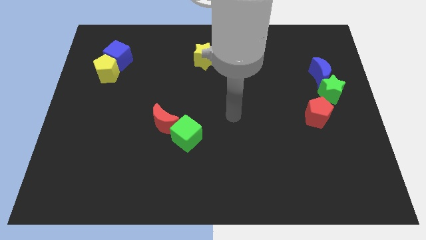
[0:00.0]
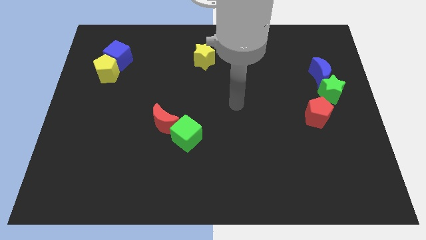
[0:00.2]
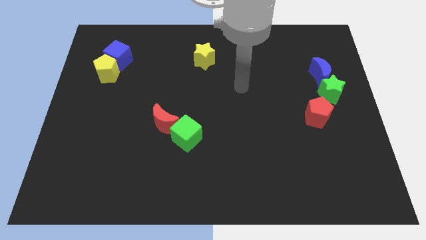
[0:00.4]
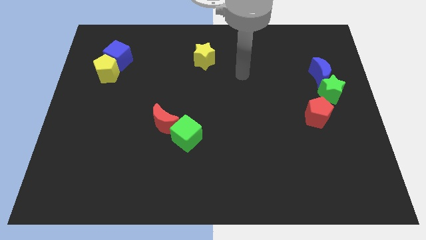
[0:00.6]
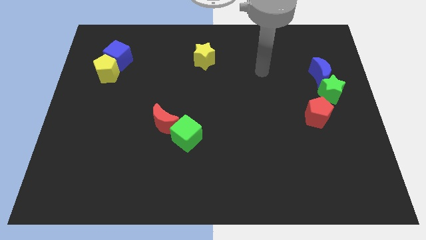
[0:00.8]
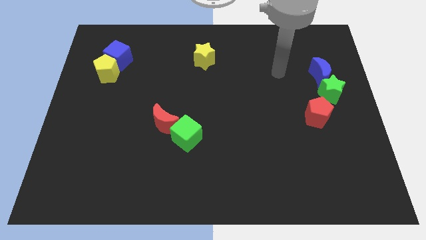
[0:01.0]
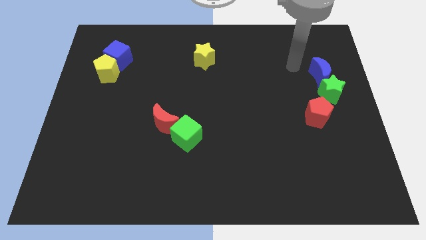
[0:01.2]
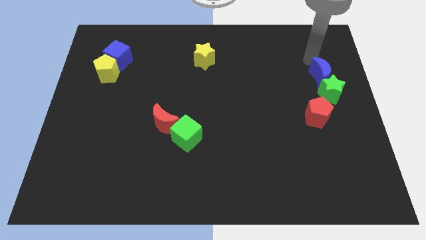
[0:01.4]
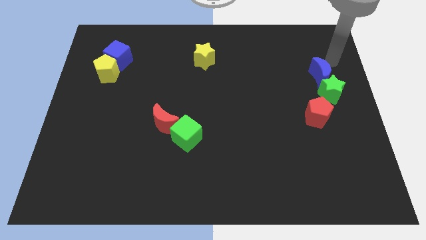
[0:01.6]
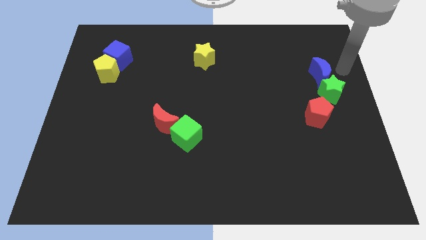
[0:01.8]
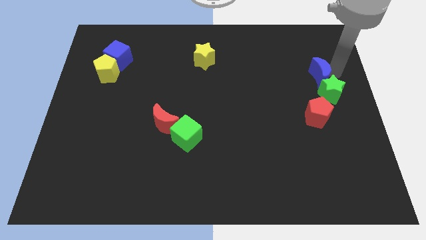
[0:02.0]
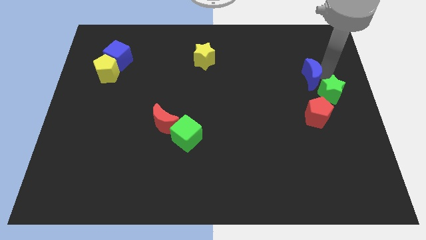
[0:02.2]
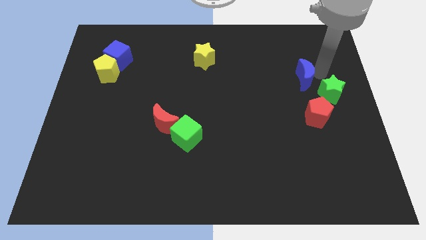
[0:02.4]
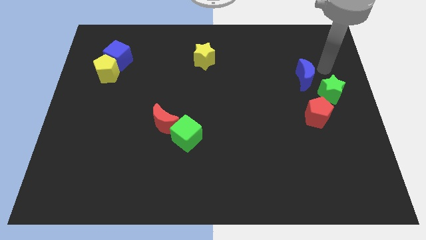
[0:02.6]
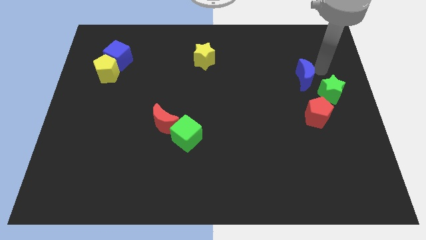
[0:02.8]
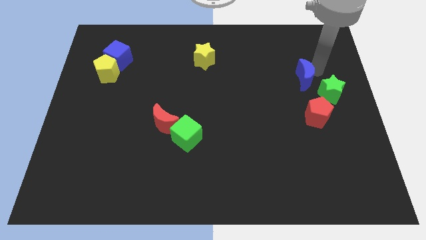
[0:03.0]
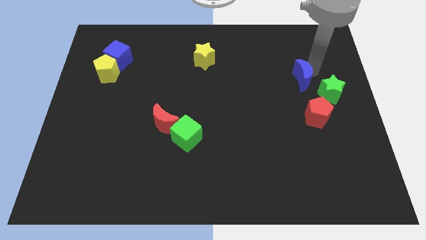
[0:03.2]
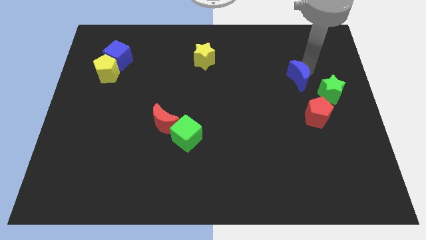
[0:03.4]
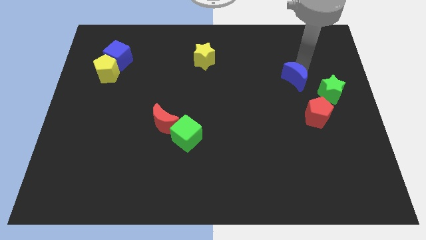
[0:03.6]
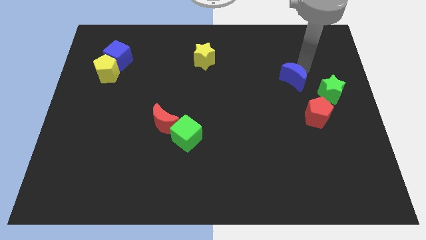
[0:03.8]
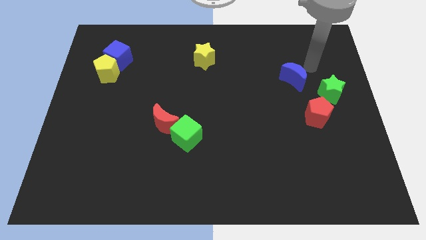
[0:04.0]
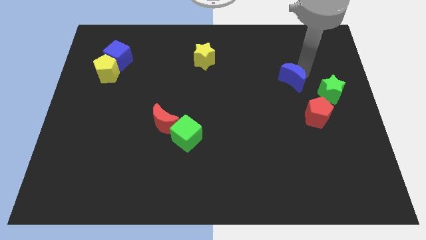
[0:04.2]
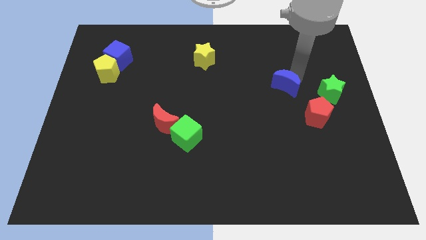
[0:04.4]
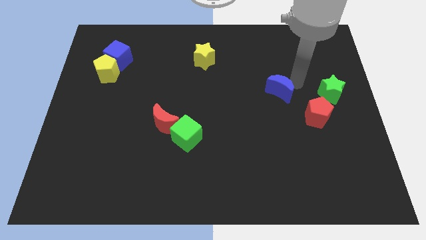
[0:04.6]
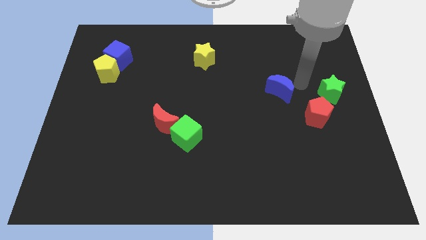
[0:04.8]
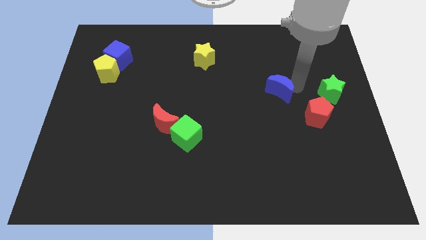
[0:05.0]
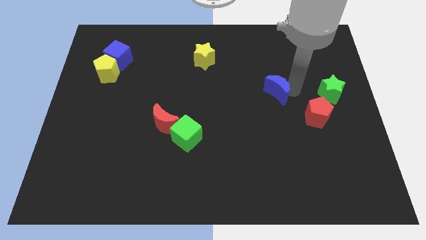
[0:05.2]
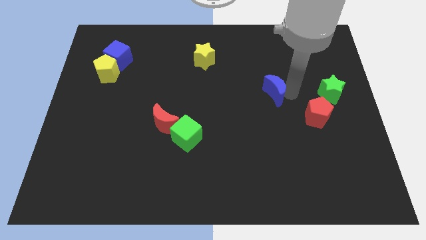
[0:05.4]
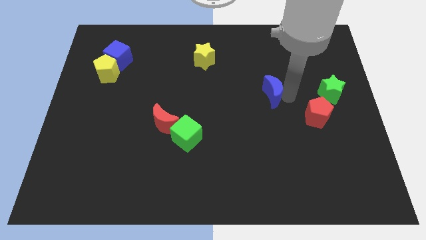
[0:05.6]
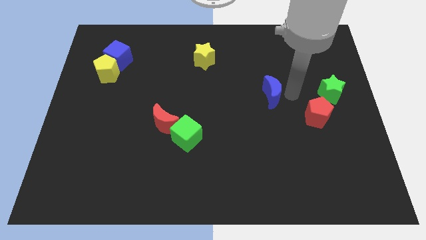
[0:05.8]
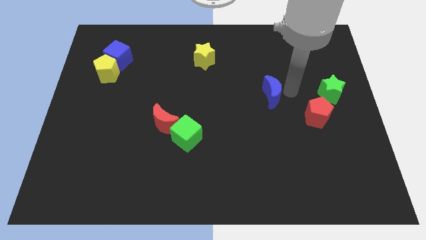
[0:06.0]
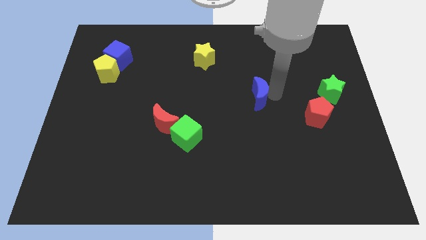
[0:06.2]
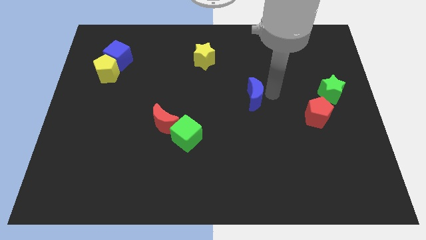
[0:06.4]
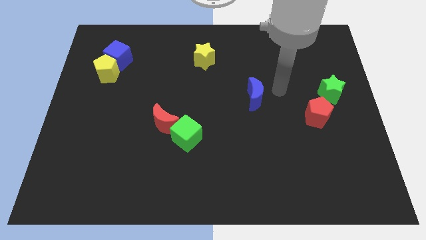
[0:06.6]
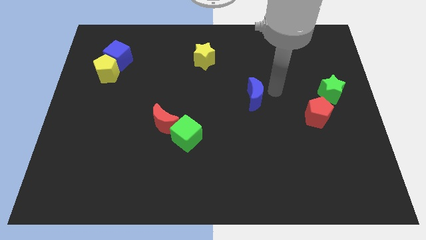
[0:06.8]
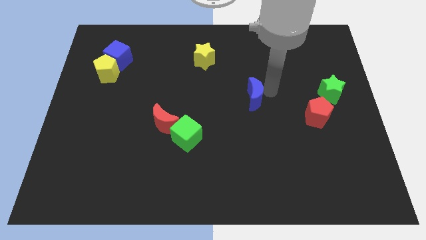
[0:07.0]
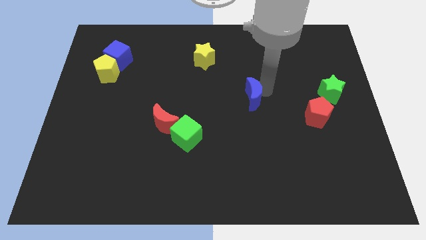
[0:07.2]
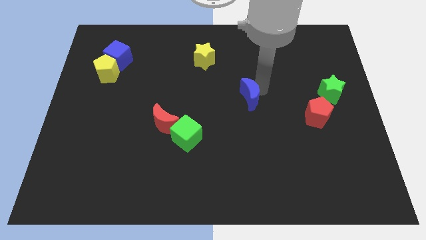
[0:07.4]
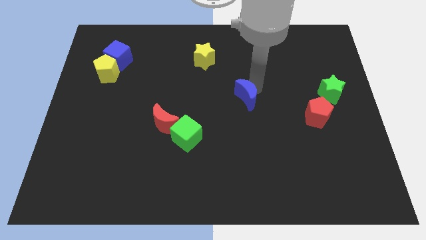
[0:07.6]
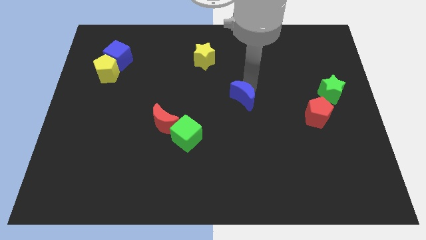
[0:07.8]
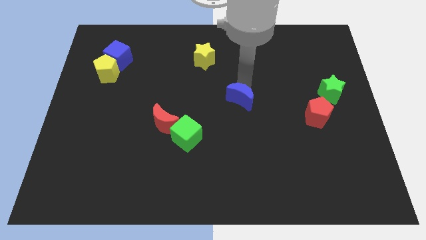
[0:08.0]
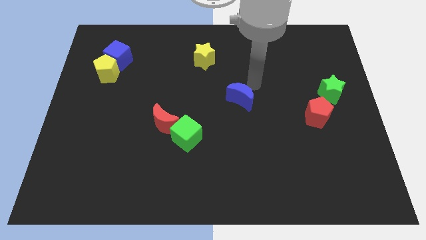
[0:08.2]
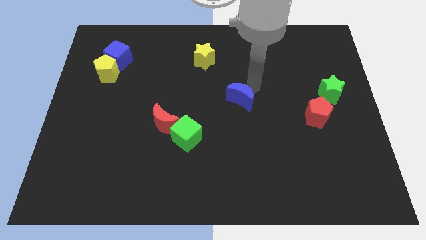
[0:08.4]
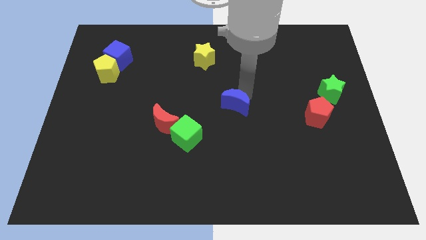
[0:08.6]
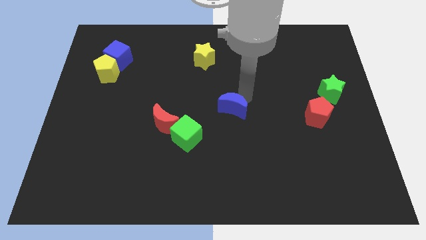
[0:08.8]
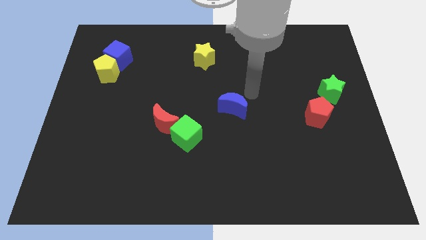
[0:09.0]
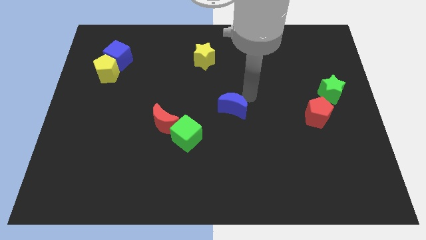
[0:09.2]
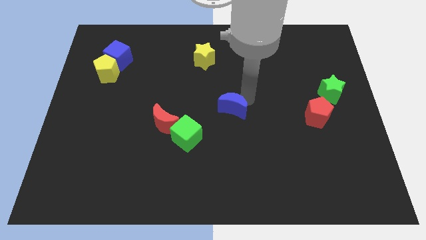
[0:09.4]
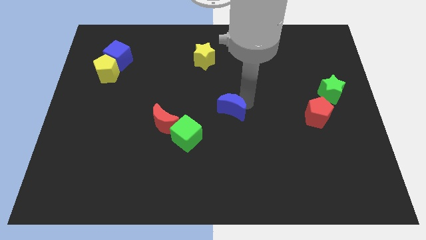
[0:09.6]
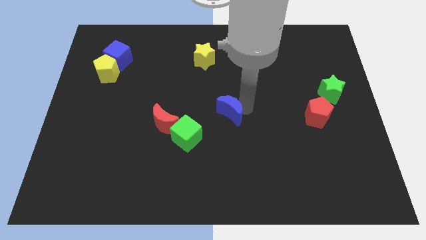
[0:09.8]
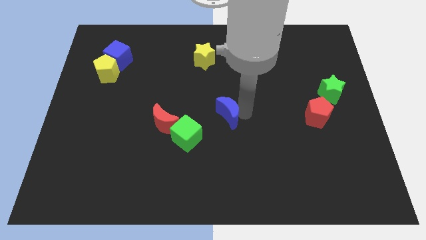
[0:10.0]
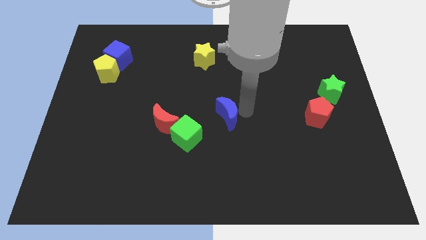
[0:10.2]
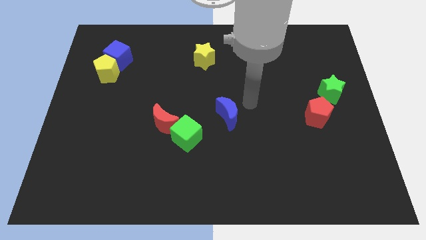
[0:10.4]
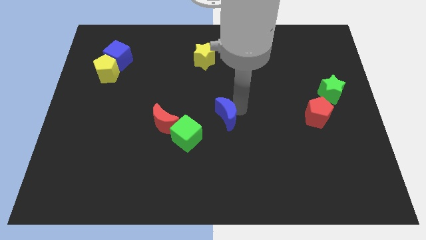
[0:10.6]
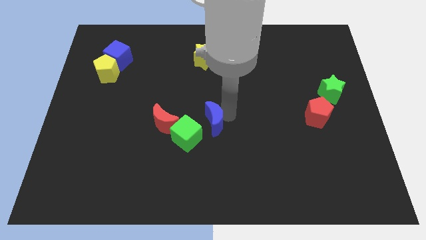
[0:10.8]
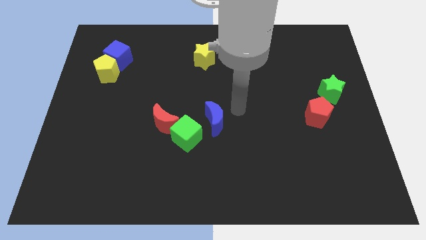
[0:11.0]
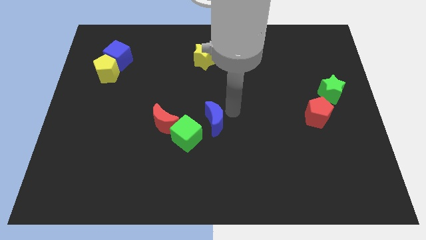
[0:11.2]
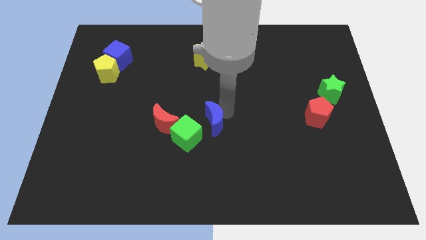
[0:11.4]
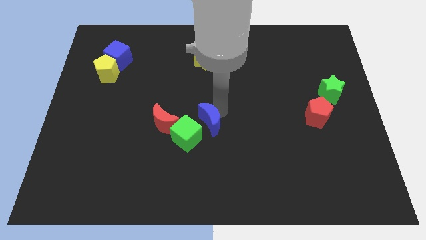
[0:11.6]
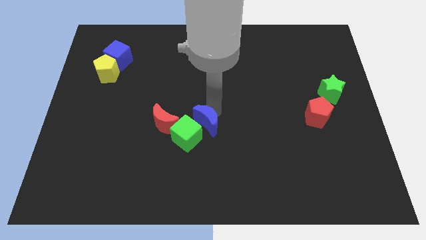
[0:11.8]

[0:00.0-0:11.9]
move the blue moon to the green cube
